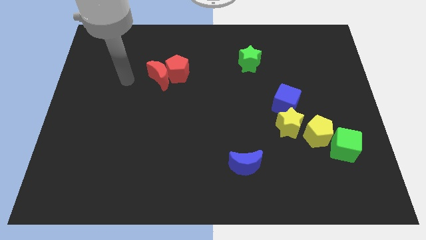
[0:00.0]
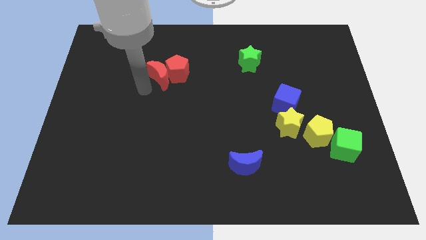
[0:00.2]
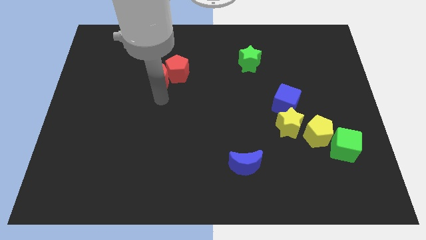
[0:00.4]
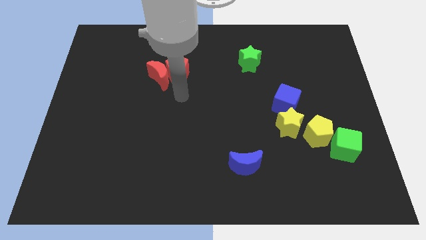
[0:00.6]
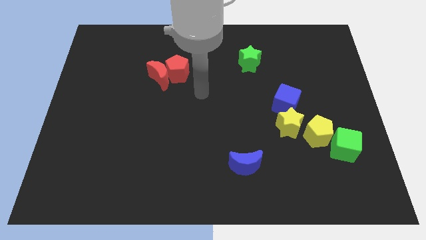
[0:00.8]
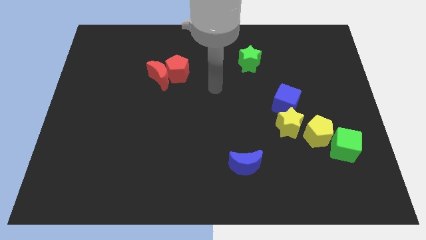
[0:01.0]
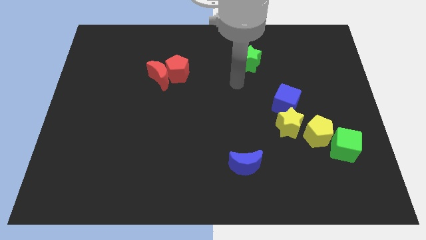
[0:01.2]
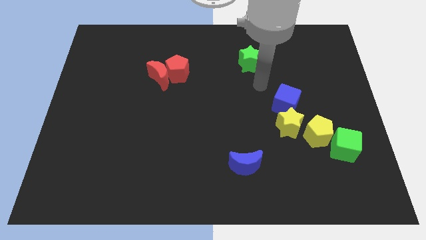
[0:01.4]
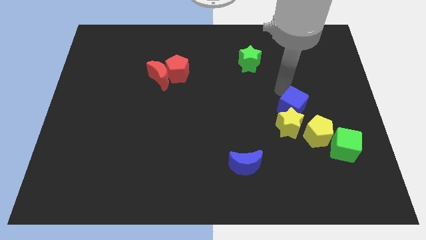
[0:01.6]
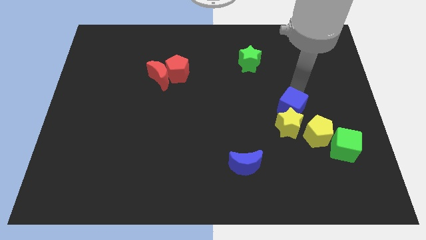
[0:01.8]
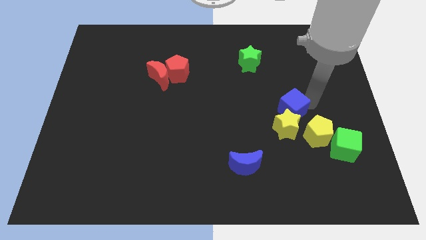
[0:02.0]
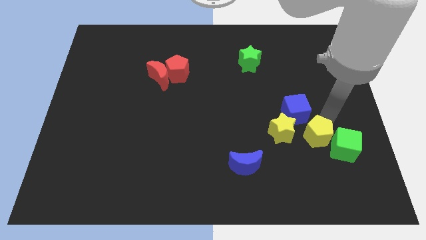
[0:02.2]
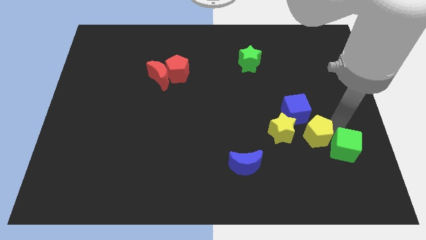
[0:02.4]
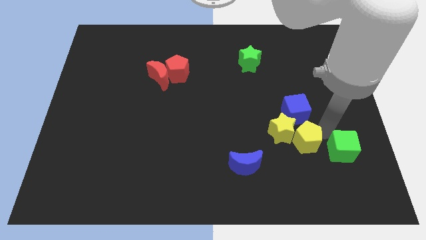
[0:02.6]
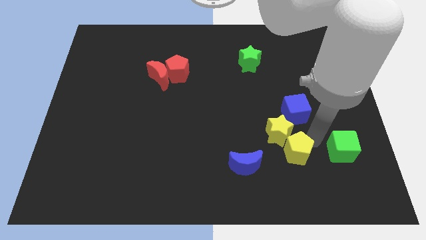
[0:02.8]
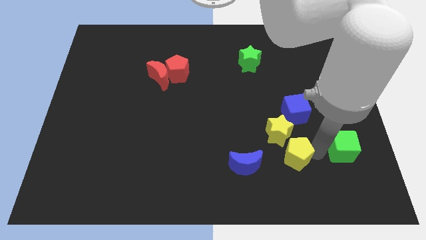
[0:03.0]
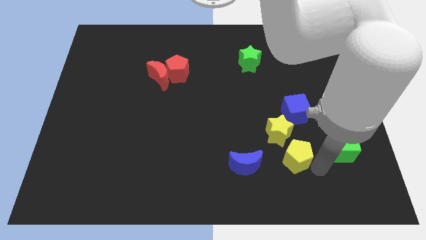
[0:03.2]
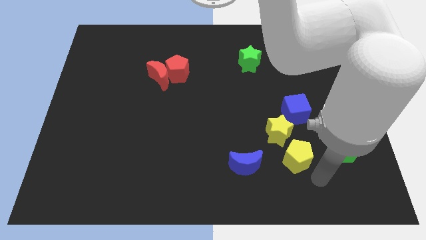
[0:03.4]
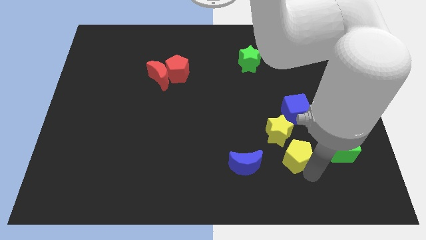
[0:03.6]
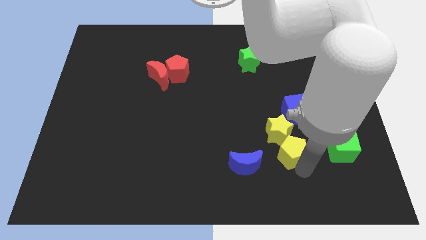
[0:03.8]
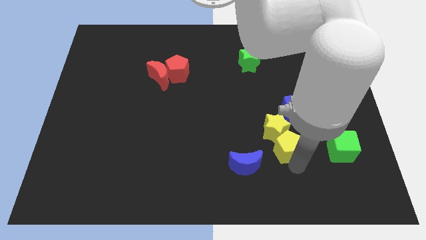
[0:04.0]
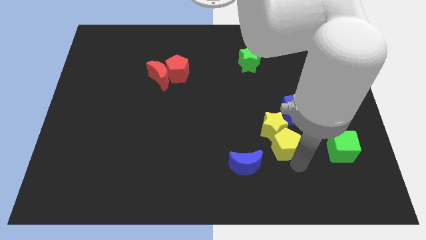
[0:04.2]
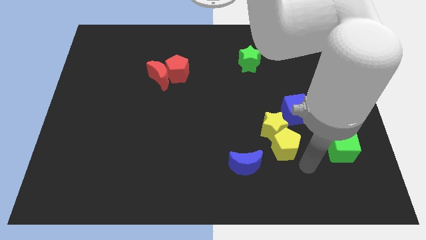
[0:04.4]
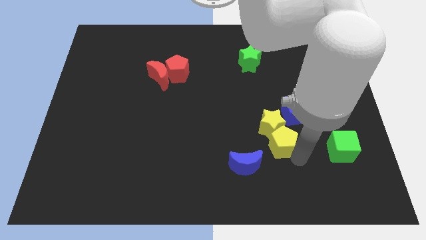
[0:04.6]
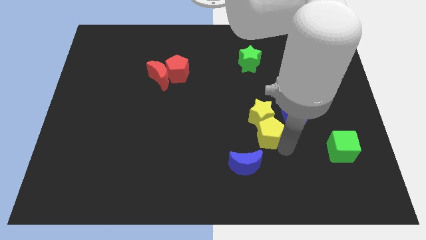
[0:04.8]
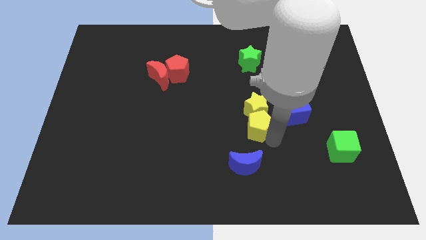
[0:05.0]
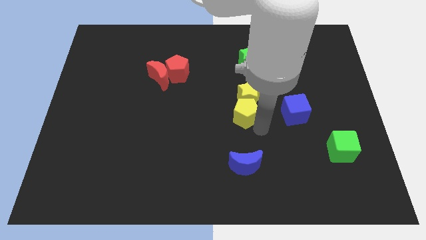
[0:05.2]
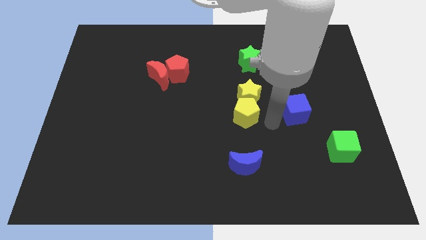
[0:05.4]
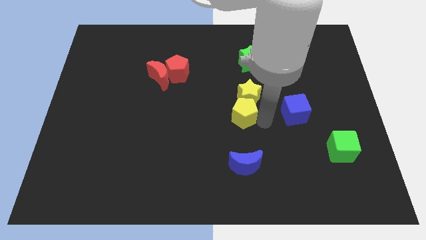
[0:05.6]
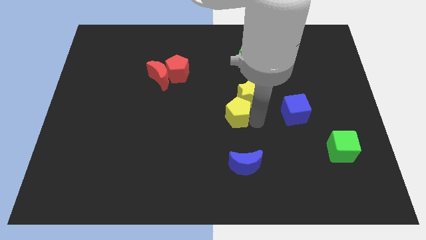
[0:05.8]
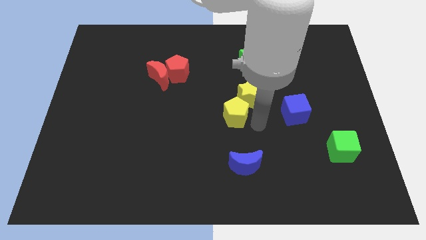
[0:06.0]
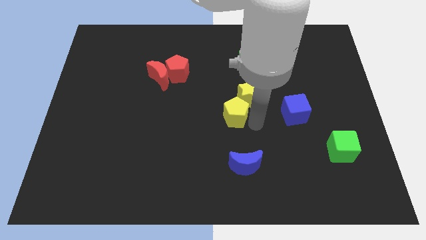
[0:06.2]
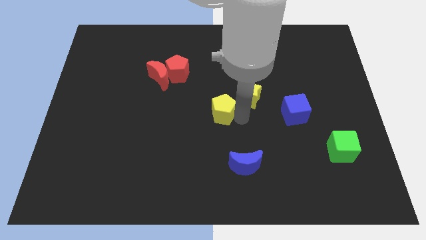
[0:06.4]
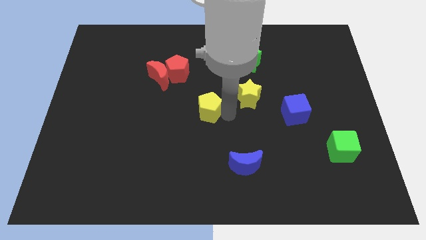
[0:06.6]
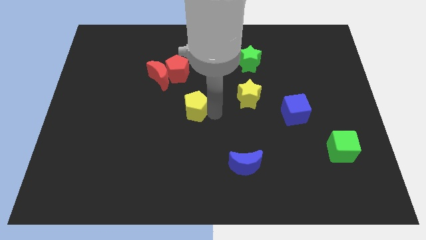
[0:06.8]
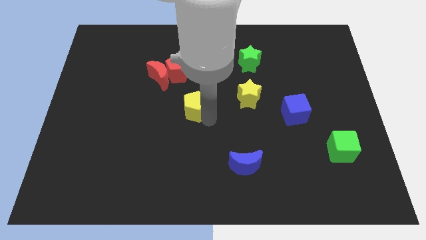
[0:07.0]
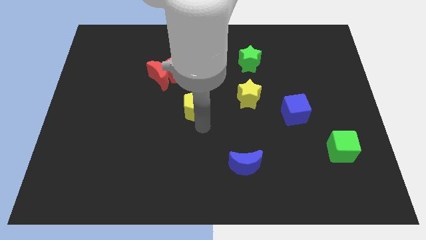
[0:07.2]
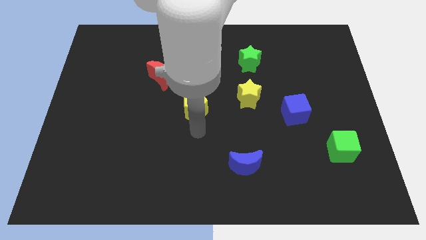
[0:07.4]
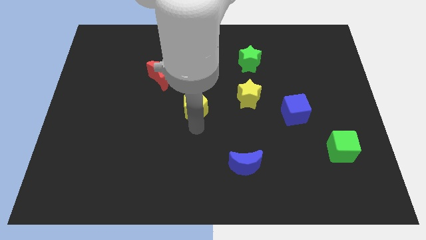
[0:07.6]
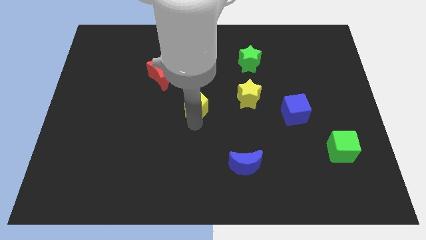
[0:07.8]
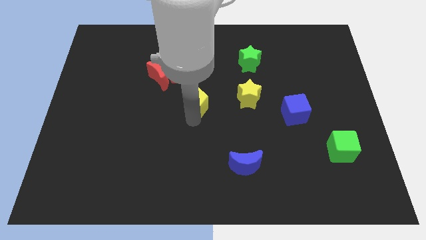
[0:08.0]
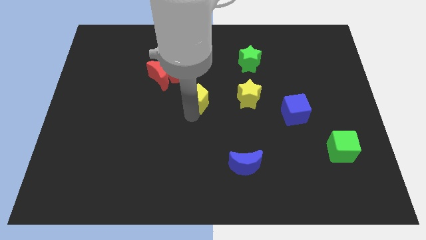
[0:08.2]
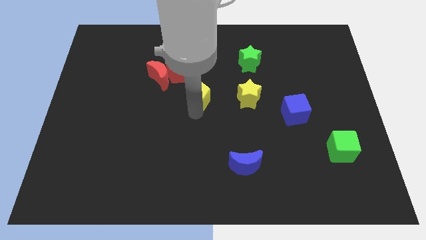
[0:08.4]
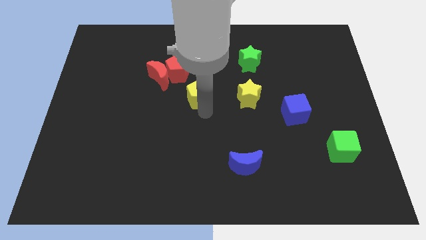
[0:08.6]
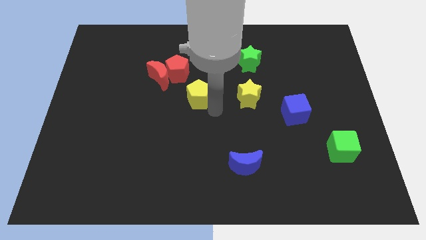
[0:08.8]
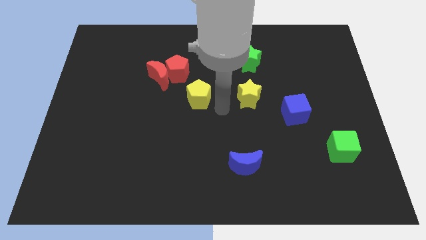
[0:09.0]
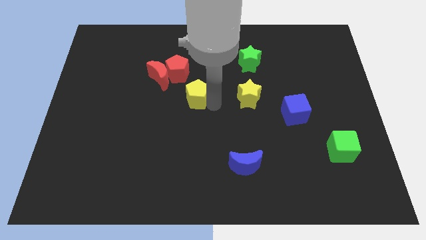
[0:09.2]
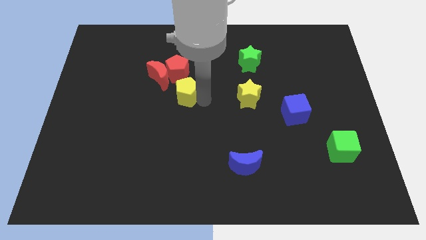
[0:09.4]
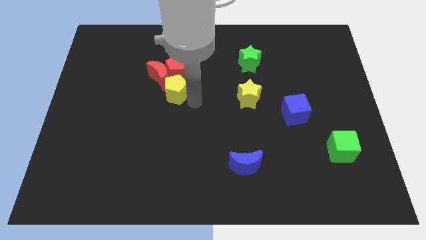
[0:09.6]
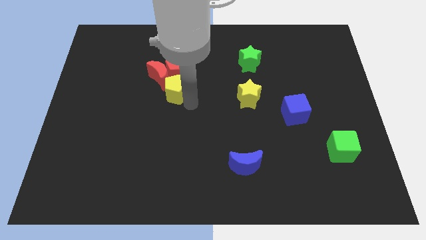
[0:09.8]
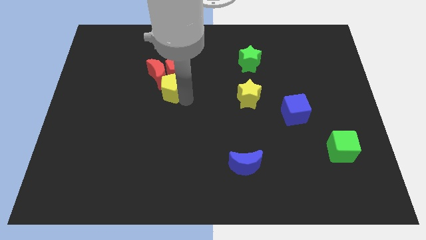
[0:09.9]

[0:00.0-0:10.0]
slide the yellow pentagon next to the red moon
